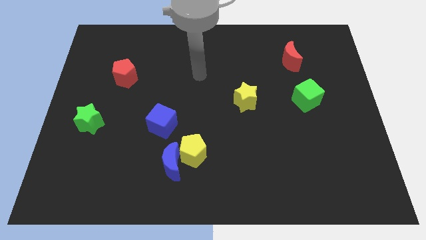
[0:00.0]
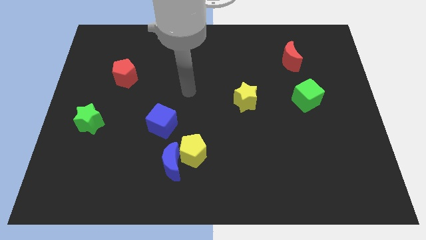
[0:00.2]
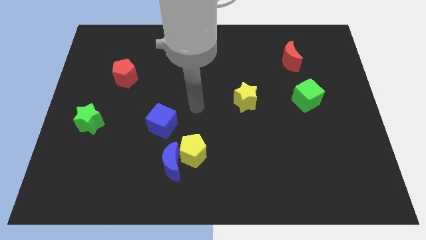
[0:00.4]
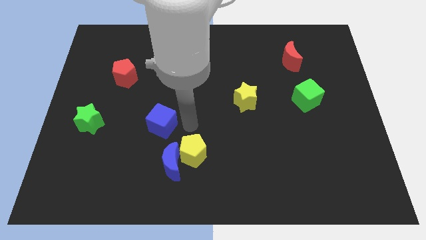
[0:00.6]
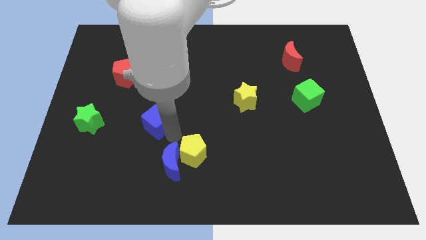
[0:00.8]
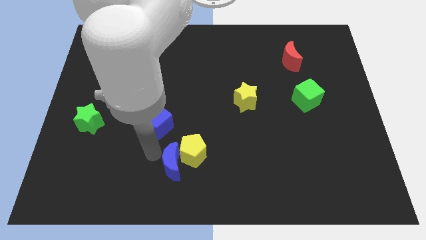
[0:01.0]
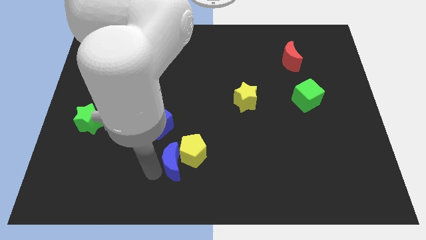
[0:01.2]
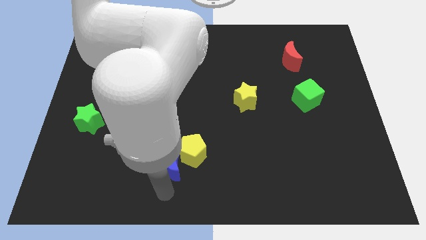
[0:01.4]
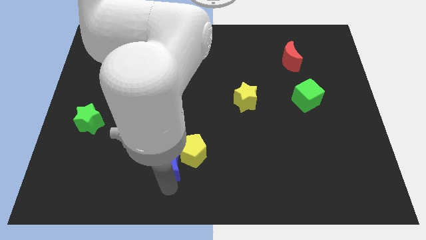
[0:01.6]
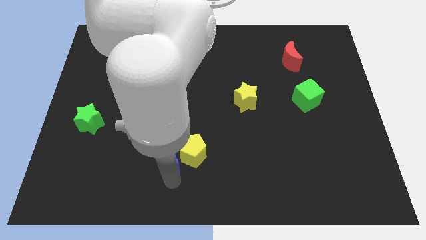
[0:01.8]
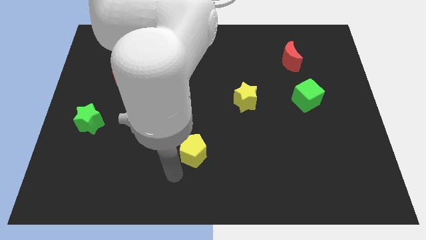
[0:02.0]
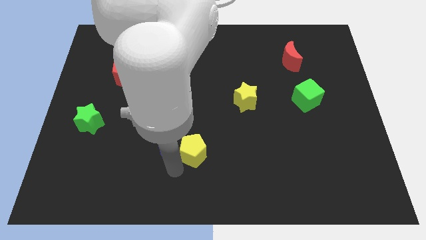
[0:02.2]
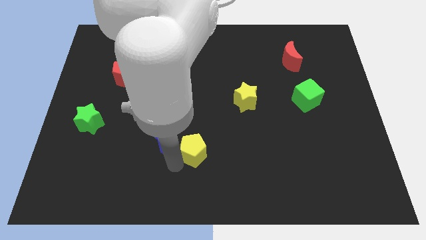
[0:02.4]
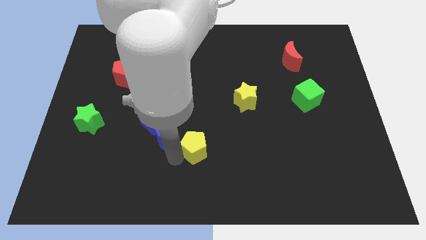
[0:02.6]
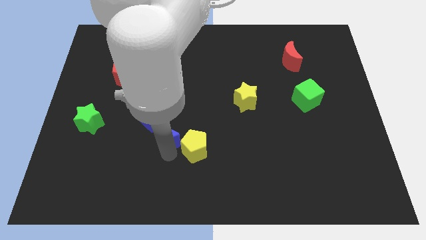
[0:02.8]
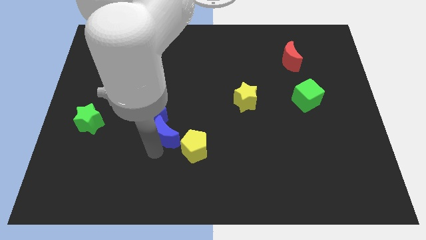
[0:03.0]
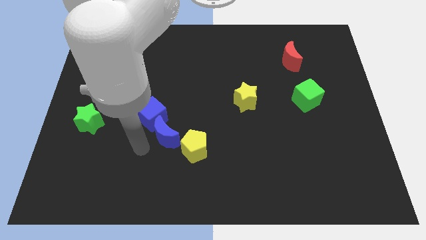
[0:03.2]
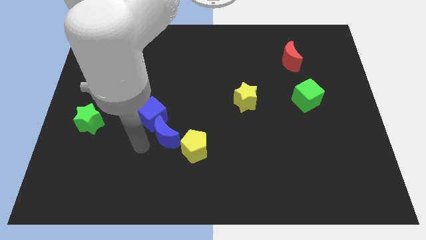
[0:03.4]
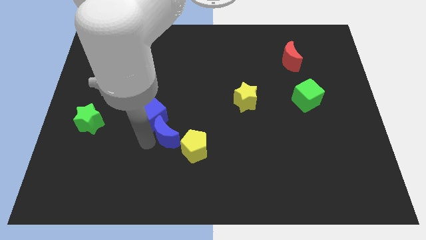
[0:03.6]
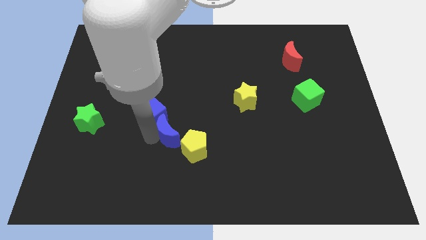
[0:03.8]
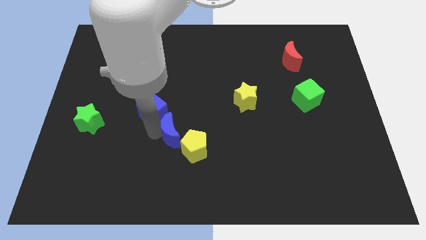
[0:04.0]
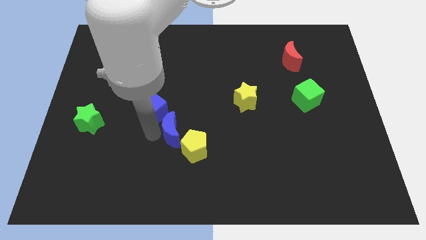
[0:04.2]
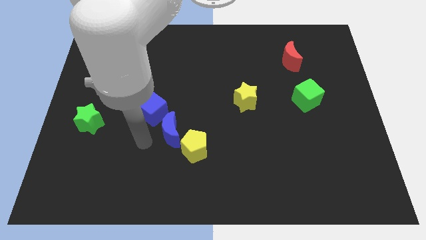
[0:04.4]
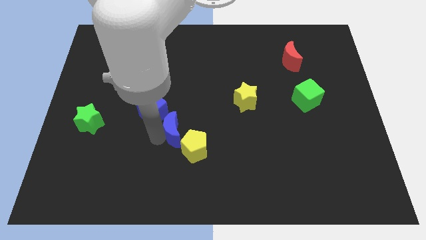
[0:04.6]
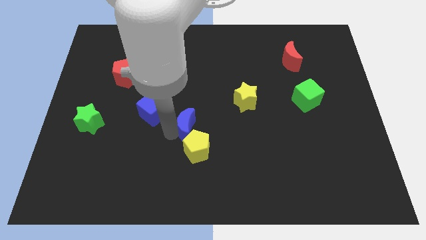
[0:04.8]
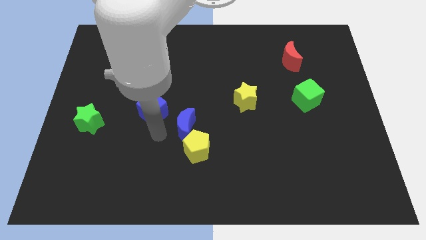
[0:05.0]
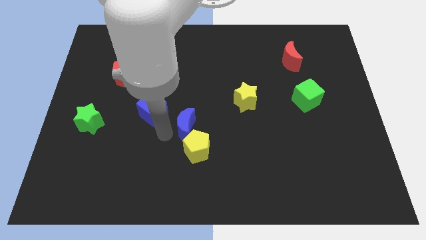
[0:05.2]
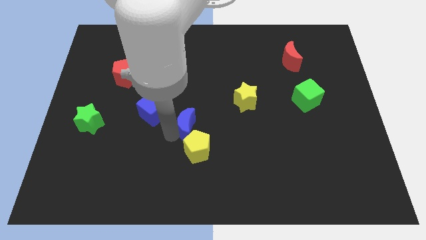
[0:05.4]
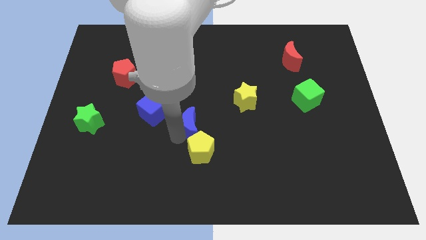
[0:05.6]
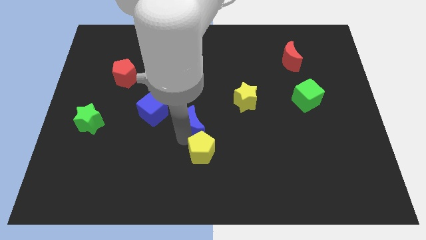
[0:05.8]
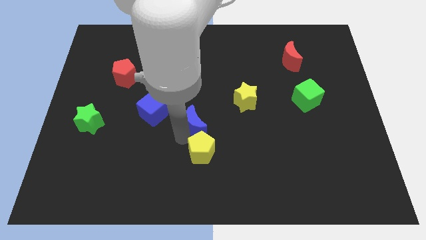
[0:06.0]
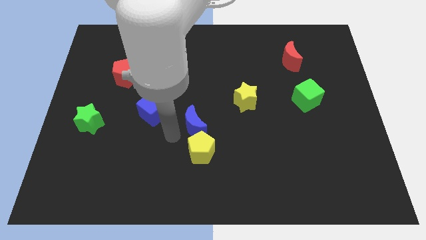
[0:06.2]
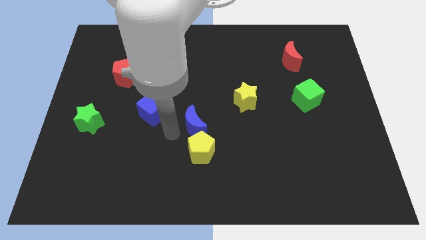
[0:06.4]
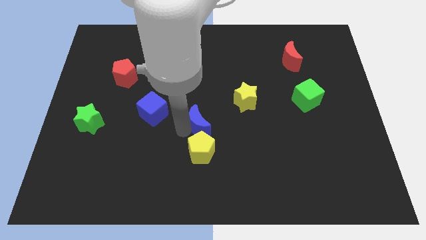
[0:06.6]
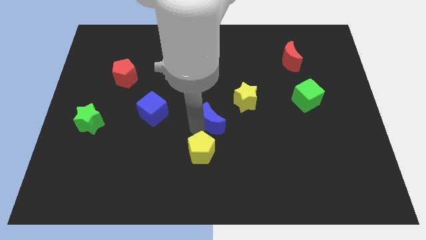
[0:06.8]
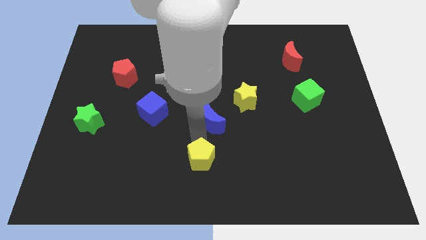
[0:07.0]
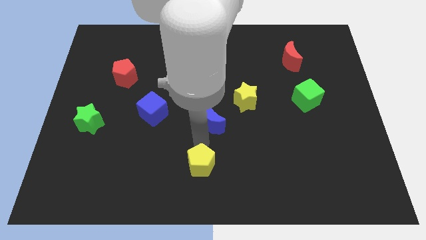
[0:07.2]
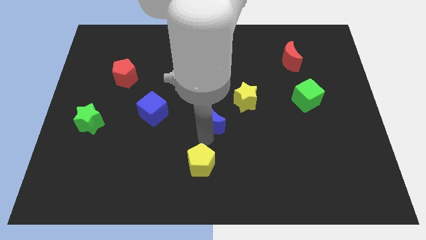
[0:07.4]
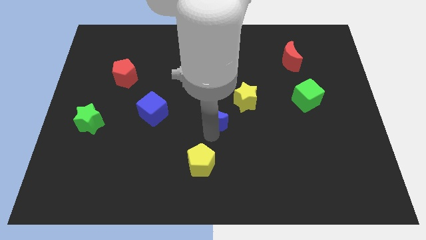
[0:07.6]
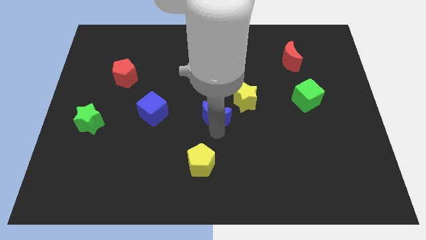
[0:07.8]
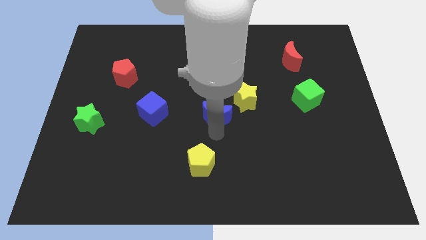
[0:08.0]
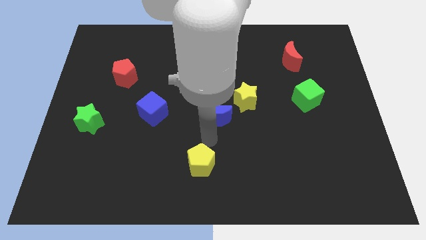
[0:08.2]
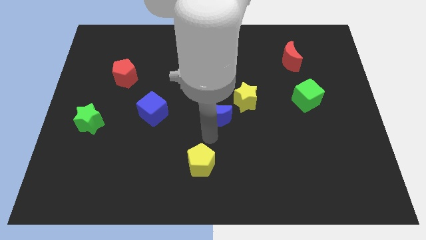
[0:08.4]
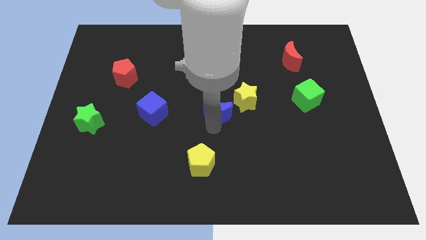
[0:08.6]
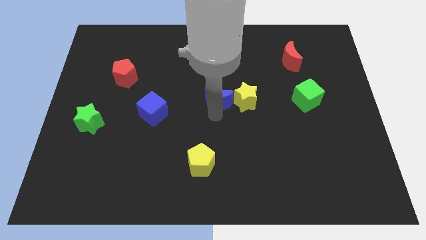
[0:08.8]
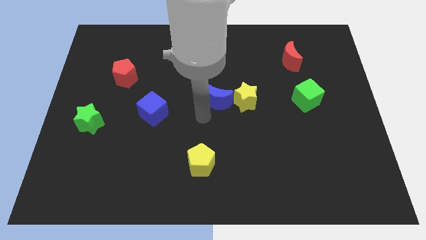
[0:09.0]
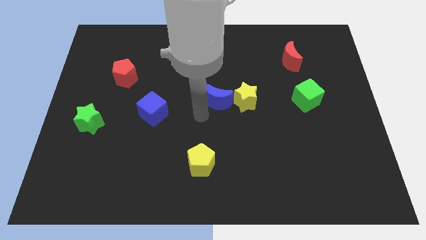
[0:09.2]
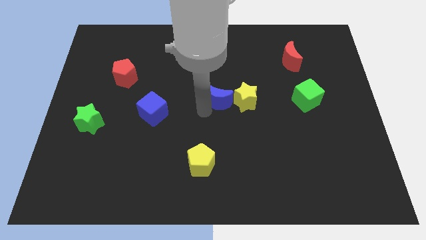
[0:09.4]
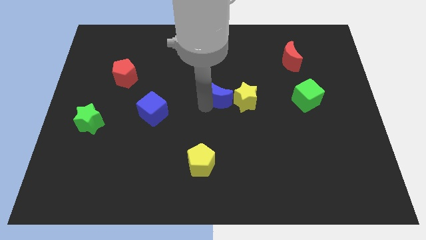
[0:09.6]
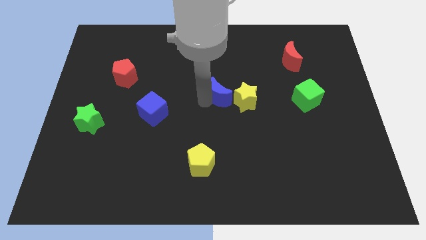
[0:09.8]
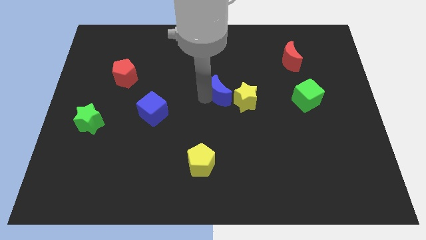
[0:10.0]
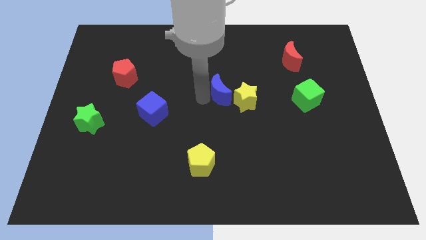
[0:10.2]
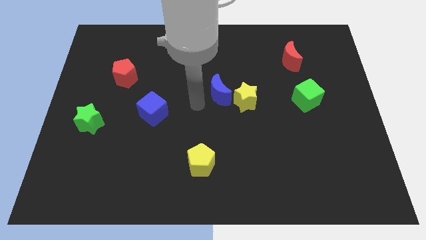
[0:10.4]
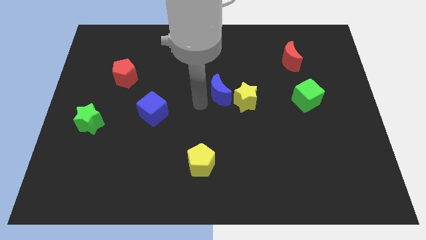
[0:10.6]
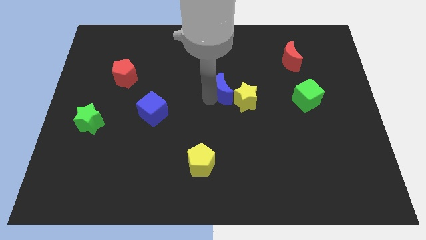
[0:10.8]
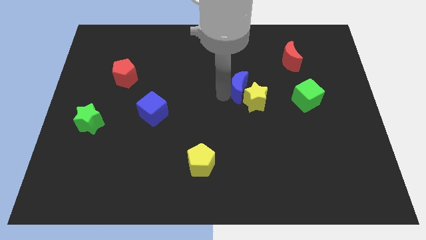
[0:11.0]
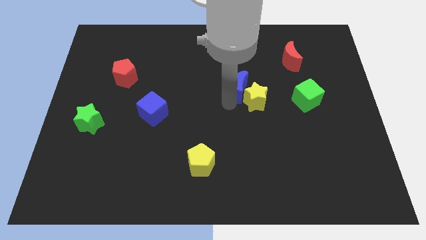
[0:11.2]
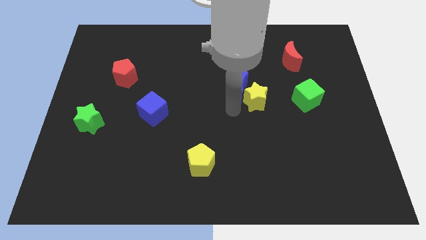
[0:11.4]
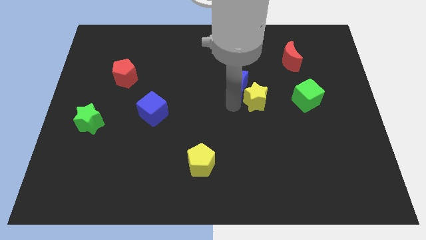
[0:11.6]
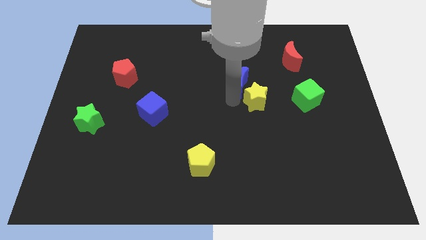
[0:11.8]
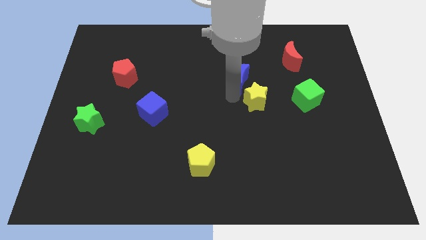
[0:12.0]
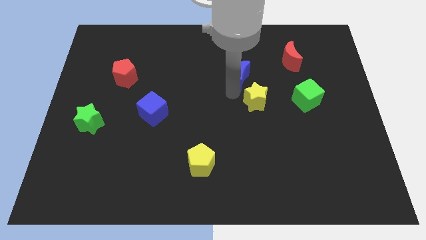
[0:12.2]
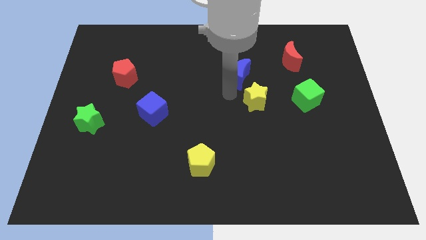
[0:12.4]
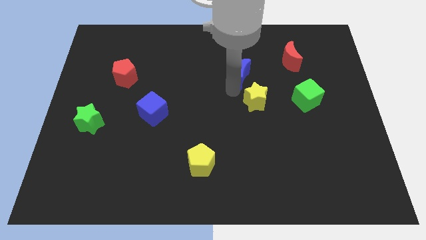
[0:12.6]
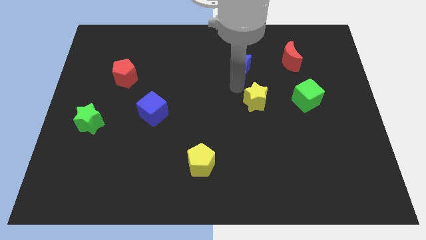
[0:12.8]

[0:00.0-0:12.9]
slide the blue moon just left of the red moon

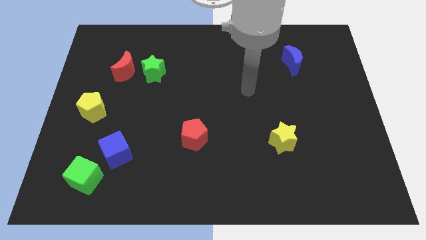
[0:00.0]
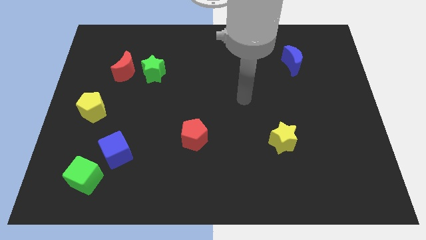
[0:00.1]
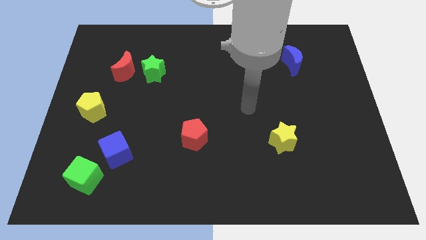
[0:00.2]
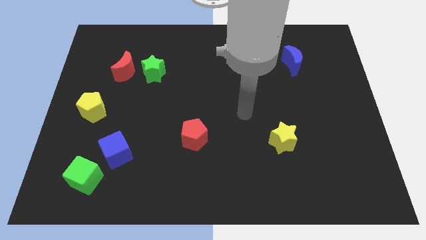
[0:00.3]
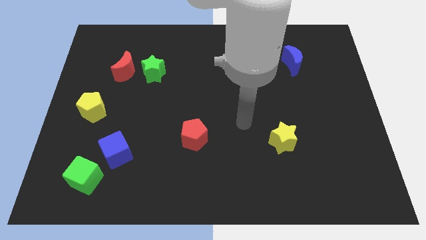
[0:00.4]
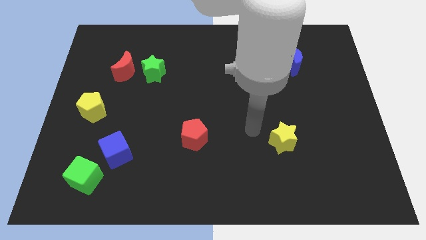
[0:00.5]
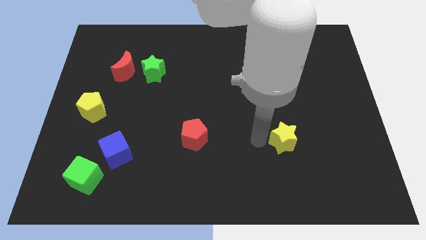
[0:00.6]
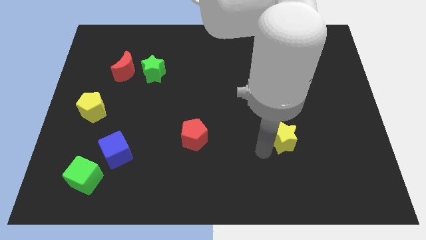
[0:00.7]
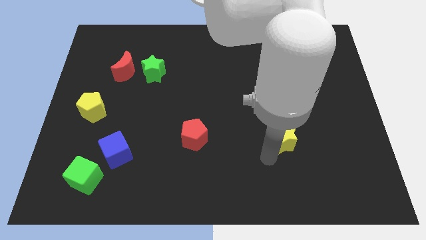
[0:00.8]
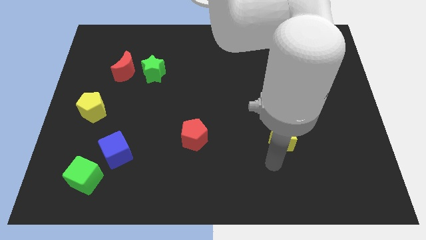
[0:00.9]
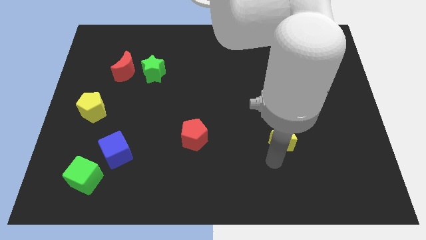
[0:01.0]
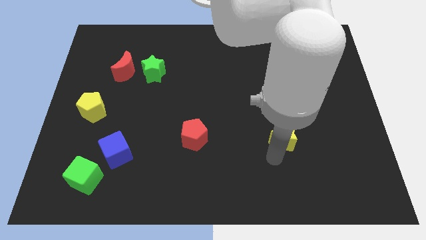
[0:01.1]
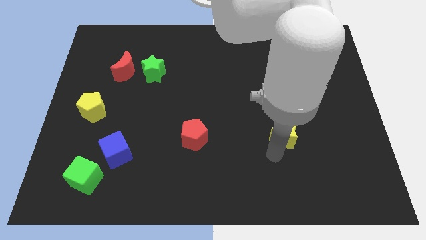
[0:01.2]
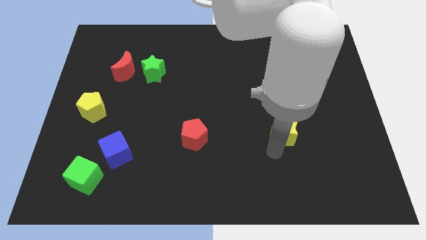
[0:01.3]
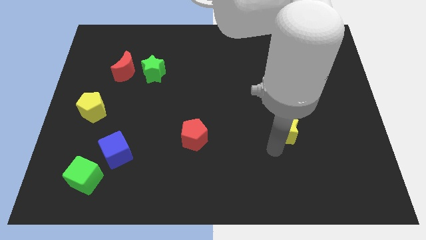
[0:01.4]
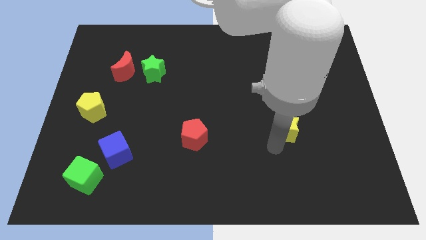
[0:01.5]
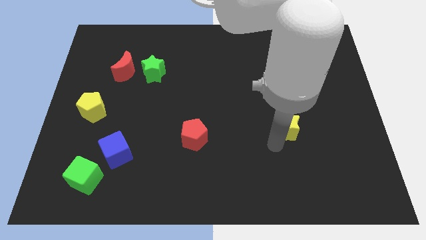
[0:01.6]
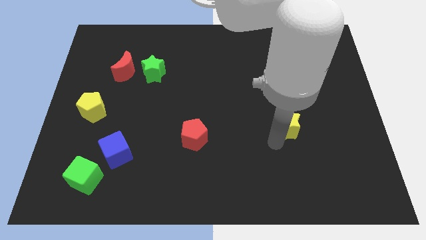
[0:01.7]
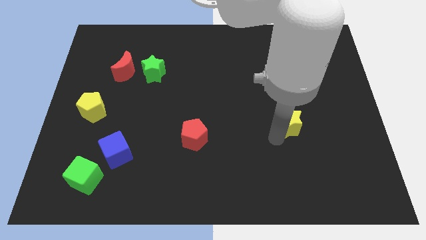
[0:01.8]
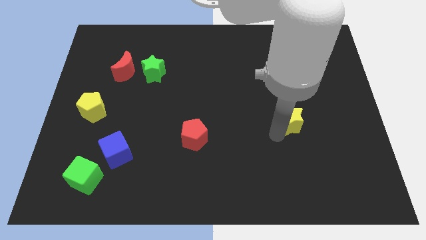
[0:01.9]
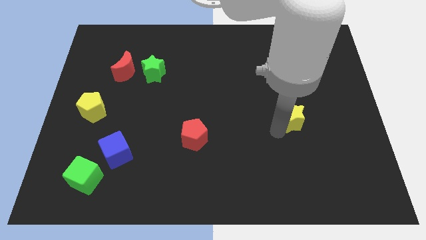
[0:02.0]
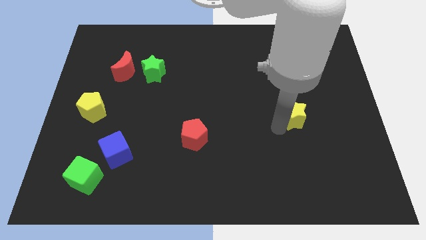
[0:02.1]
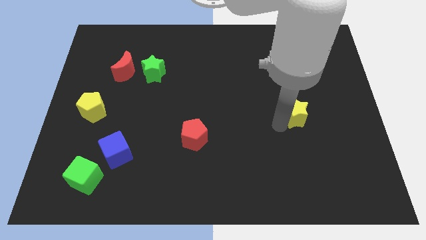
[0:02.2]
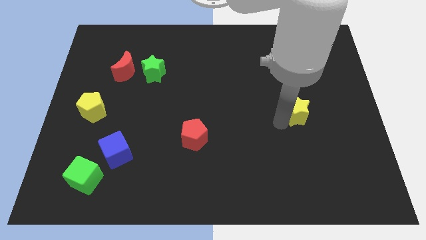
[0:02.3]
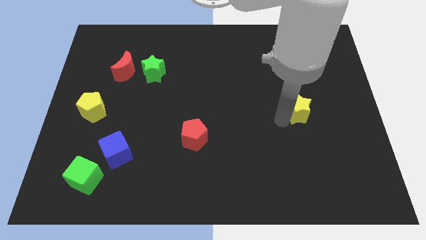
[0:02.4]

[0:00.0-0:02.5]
push the yellow star to the bottom side of the blue moon
